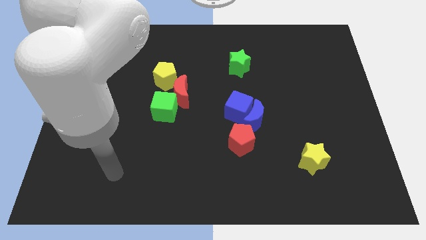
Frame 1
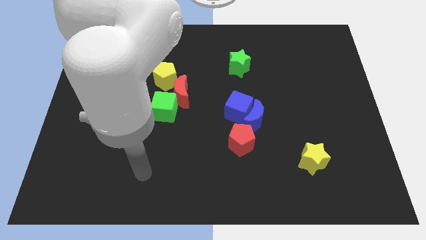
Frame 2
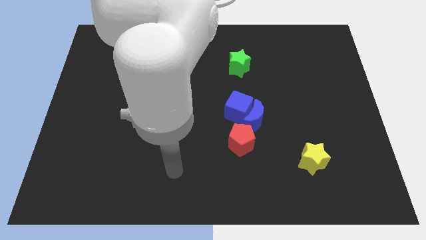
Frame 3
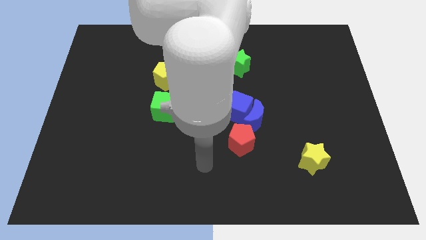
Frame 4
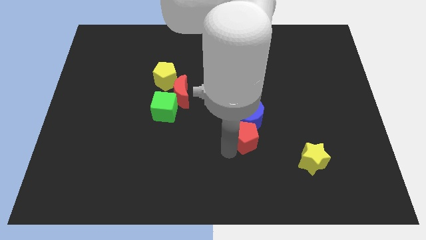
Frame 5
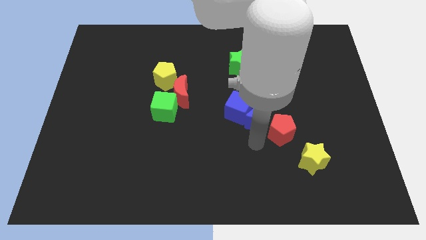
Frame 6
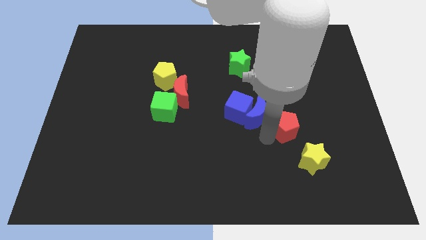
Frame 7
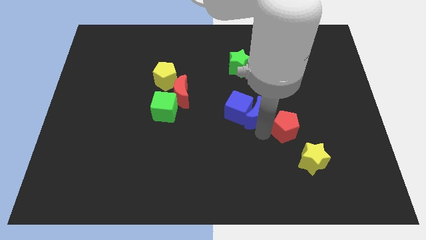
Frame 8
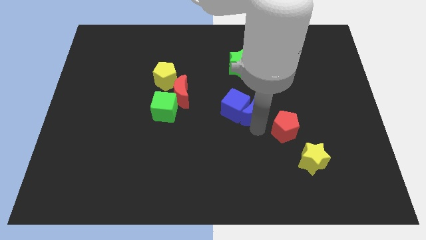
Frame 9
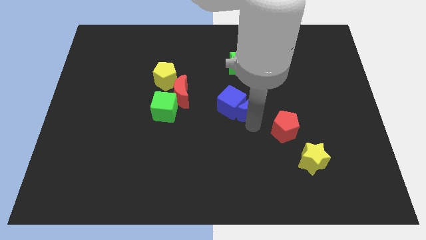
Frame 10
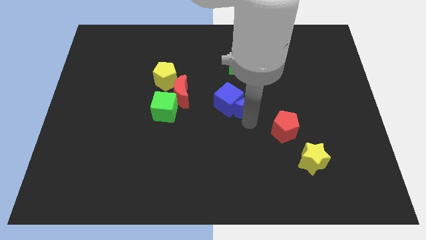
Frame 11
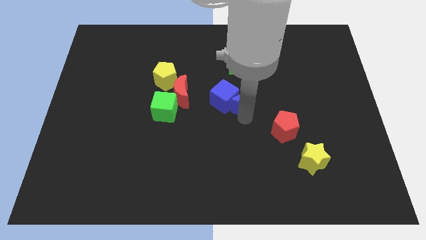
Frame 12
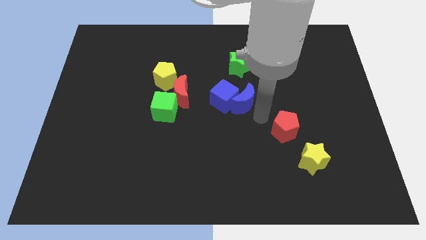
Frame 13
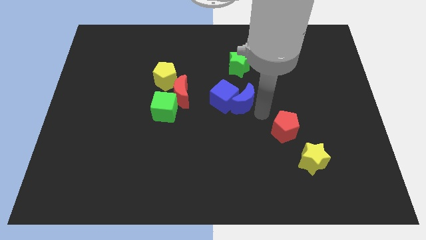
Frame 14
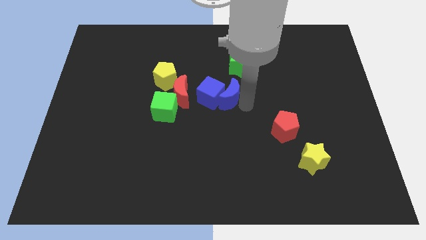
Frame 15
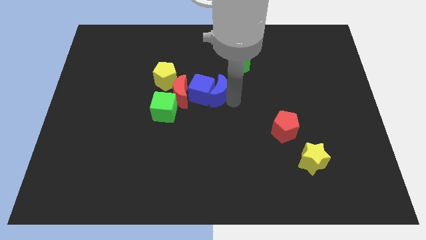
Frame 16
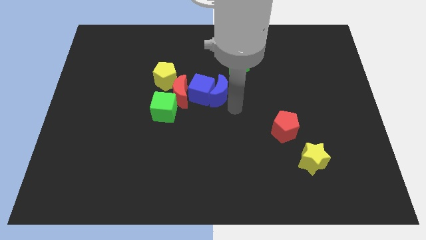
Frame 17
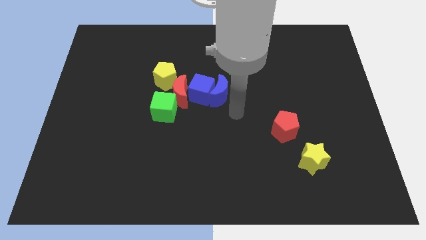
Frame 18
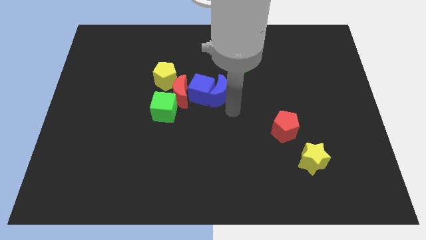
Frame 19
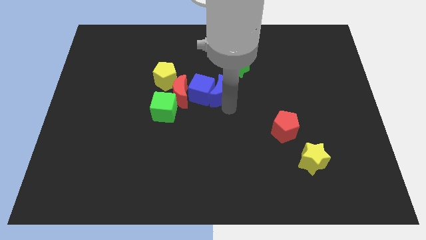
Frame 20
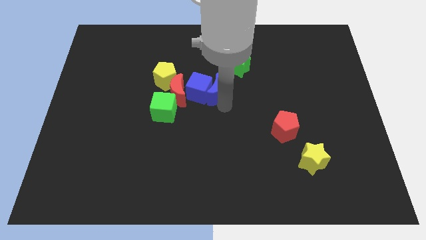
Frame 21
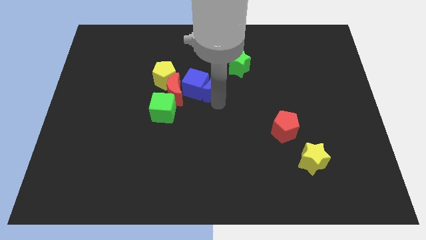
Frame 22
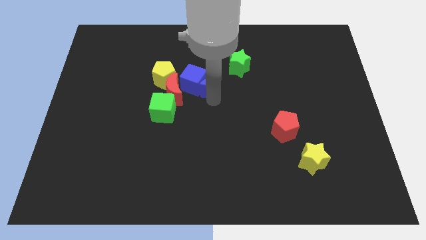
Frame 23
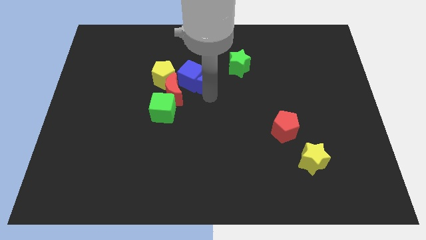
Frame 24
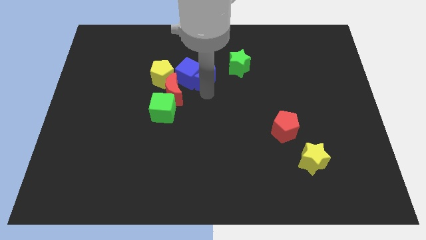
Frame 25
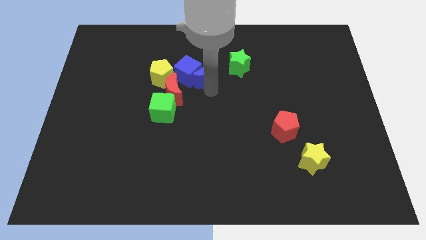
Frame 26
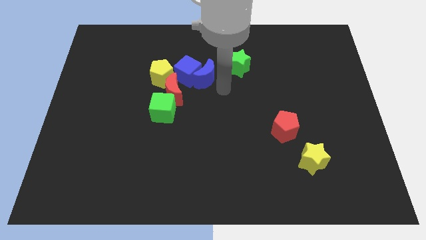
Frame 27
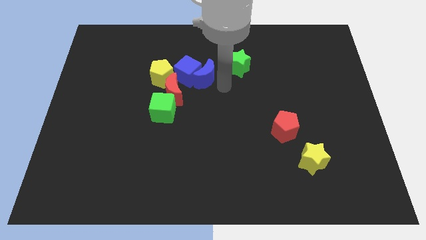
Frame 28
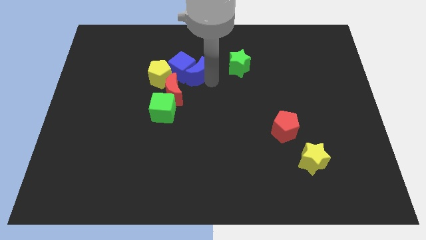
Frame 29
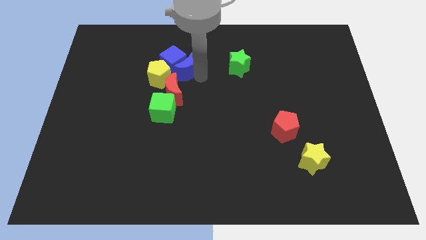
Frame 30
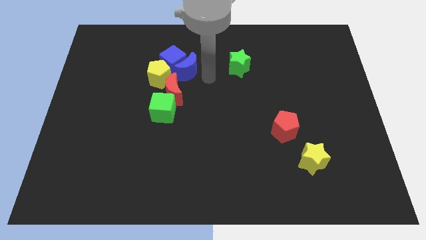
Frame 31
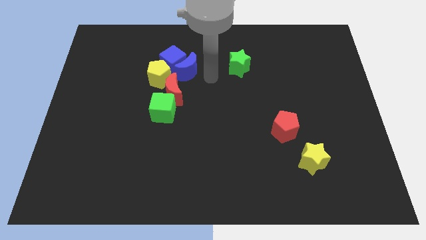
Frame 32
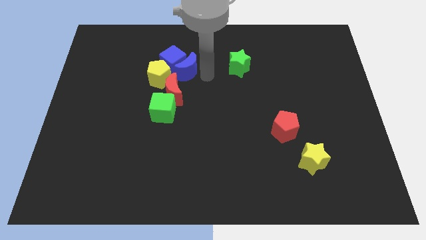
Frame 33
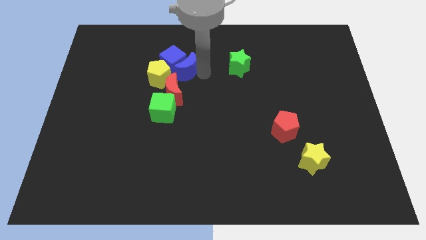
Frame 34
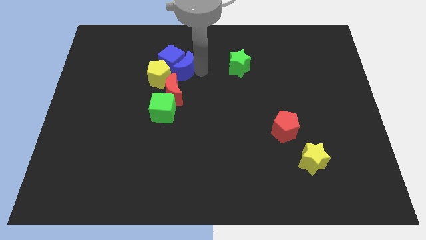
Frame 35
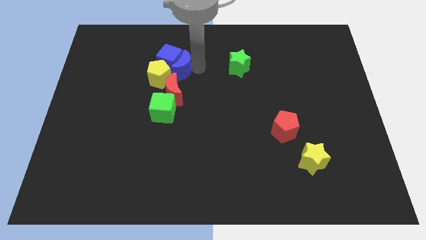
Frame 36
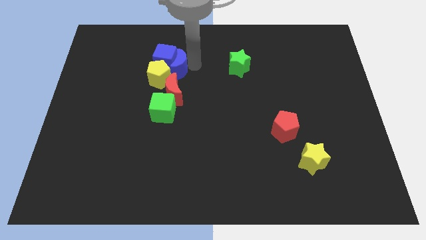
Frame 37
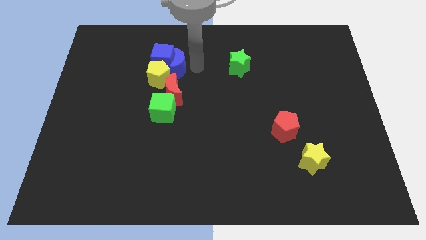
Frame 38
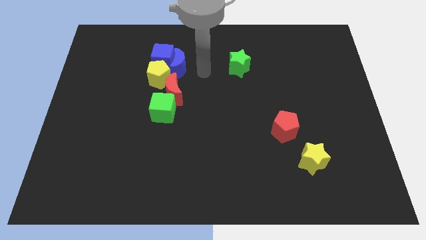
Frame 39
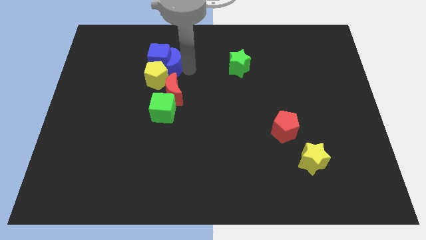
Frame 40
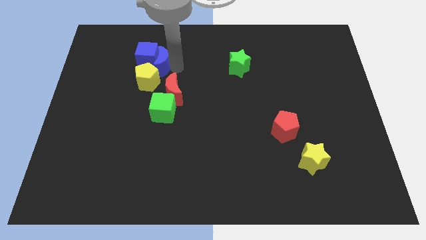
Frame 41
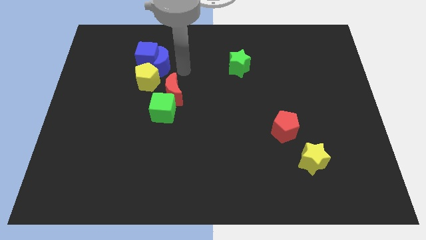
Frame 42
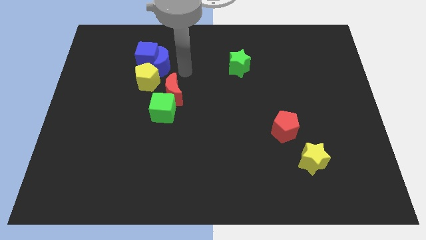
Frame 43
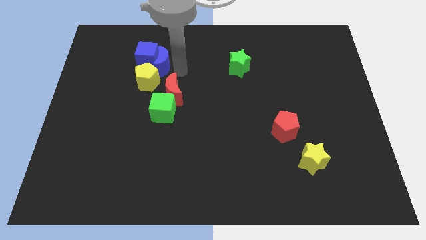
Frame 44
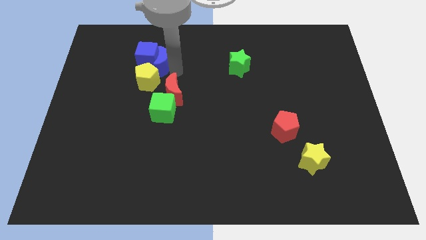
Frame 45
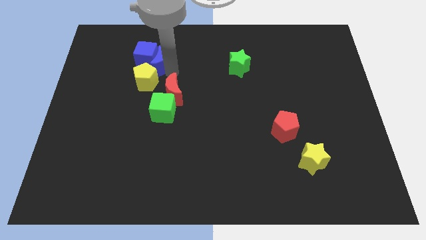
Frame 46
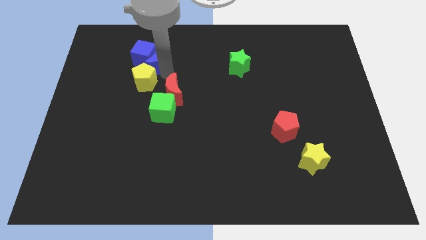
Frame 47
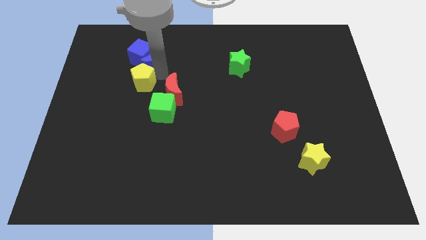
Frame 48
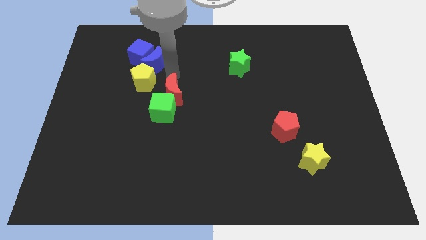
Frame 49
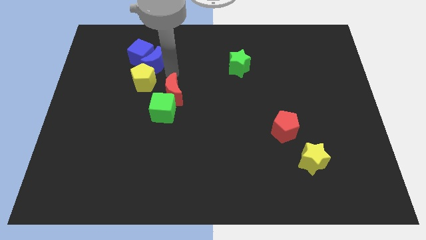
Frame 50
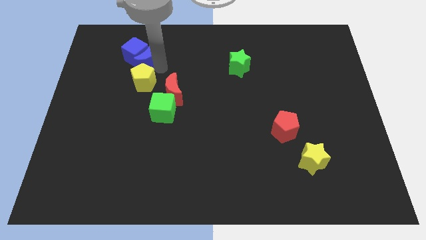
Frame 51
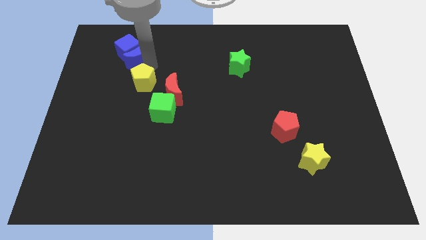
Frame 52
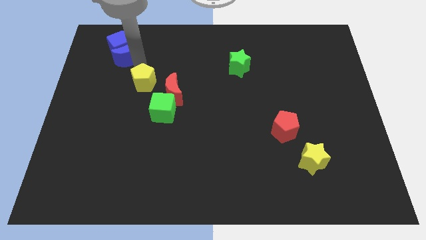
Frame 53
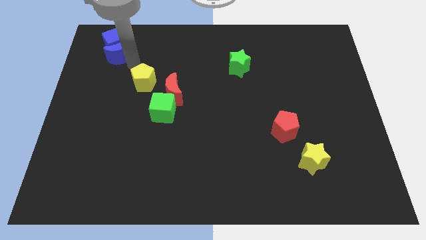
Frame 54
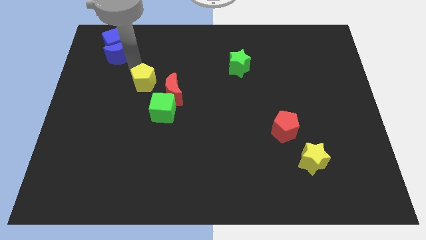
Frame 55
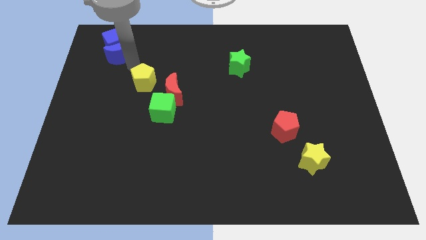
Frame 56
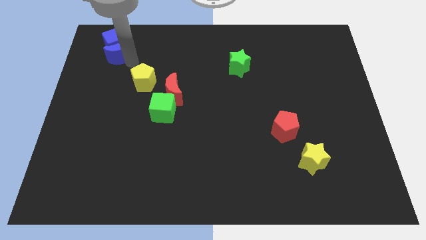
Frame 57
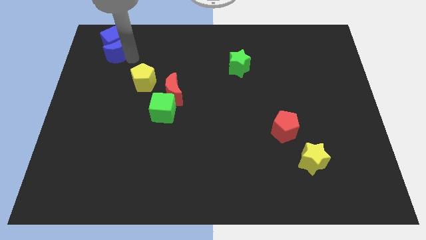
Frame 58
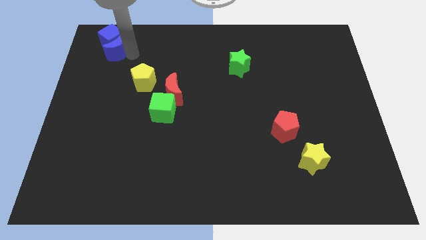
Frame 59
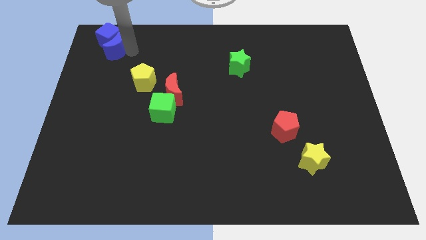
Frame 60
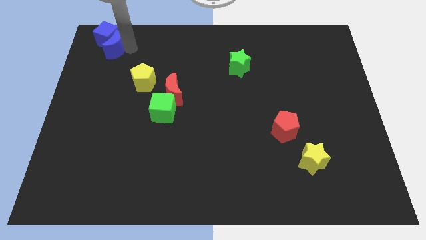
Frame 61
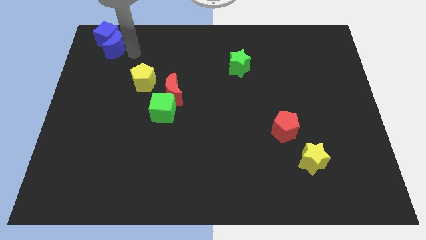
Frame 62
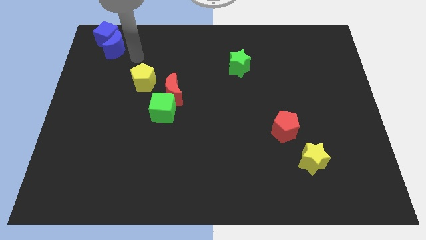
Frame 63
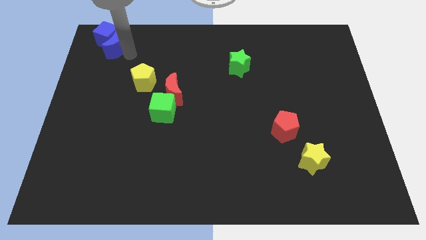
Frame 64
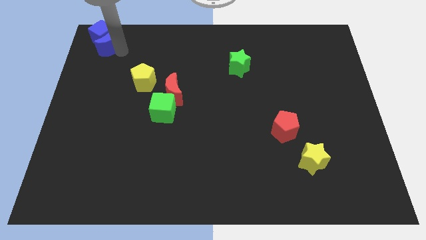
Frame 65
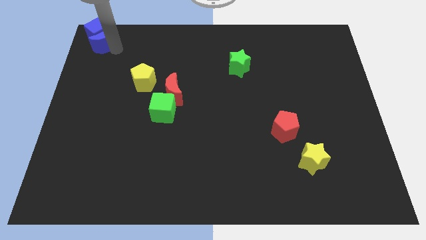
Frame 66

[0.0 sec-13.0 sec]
slide the blue moon to the upper left corner

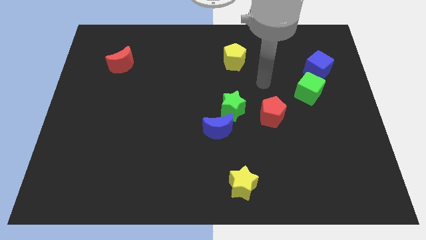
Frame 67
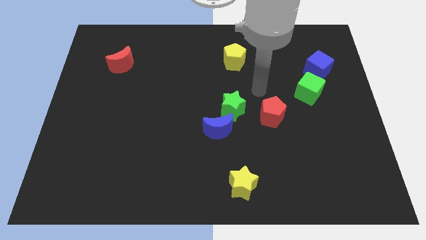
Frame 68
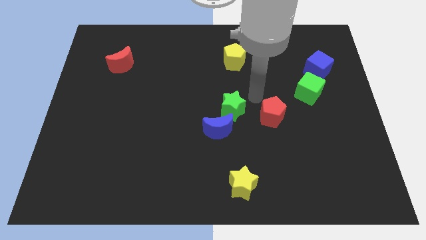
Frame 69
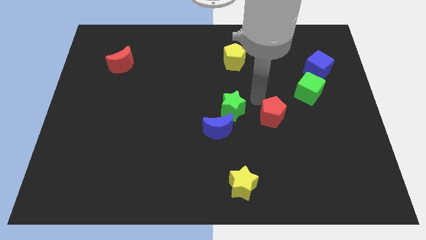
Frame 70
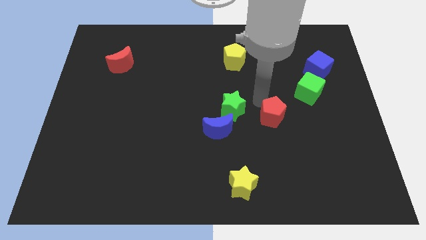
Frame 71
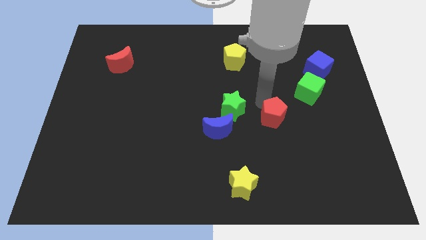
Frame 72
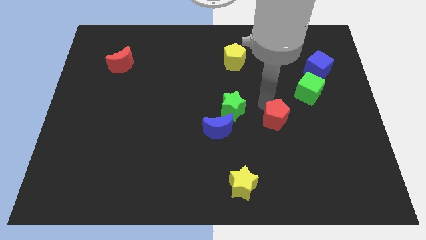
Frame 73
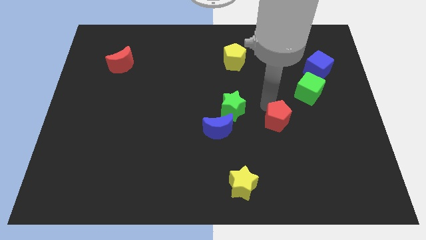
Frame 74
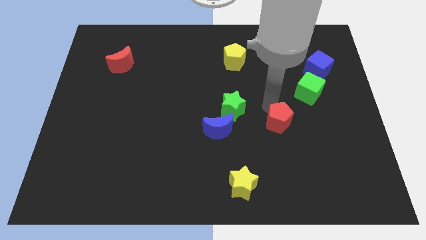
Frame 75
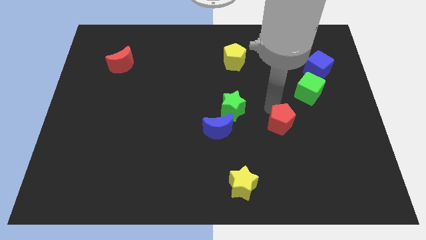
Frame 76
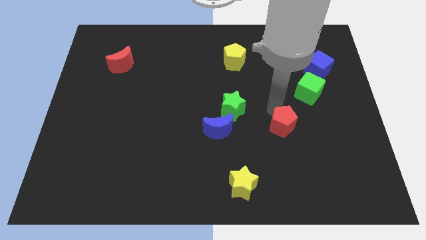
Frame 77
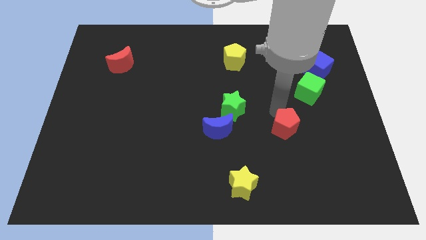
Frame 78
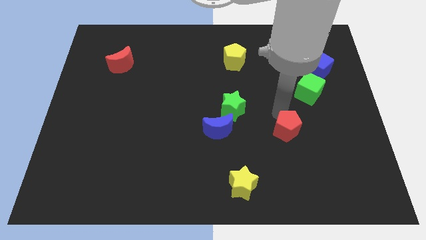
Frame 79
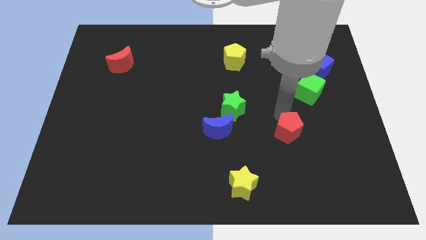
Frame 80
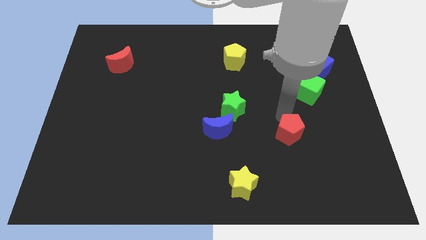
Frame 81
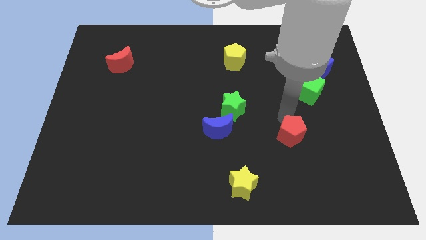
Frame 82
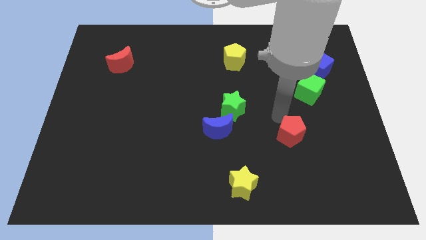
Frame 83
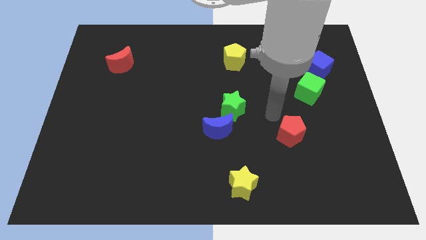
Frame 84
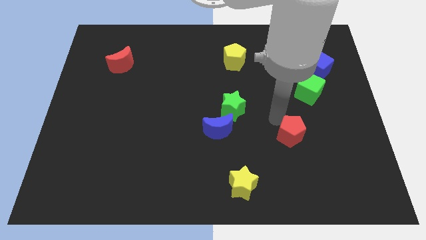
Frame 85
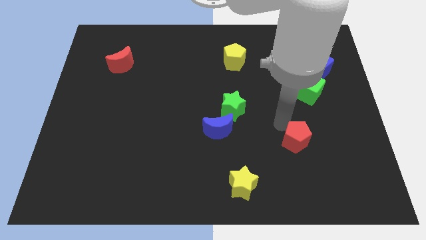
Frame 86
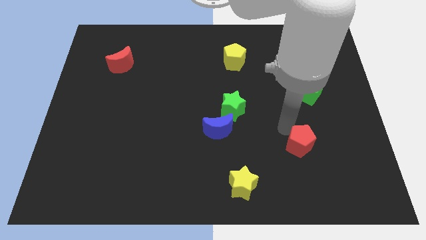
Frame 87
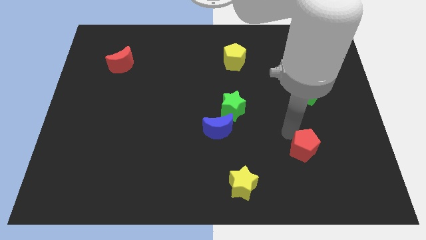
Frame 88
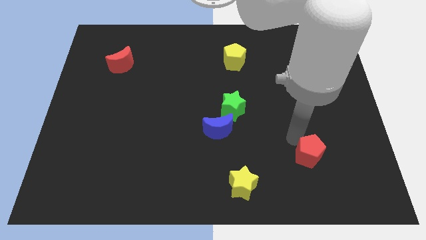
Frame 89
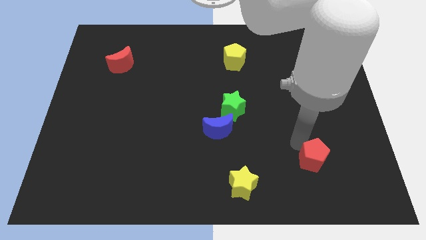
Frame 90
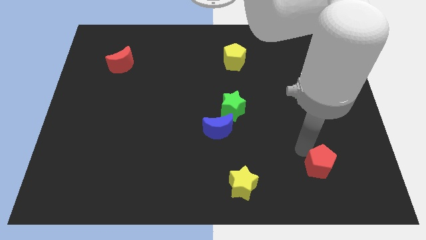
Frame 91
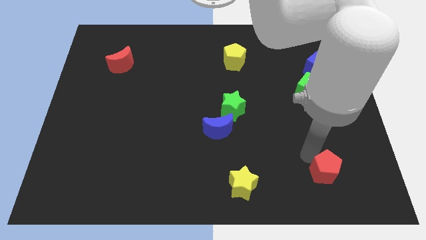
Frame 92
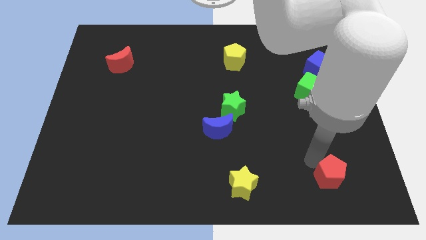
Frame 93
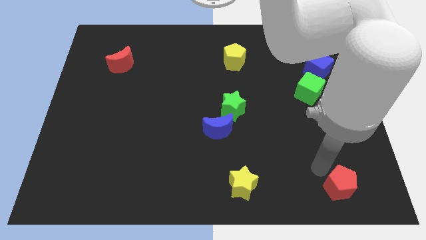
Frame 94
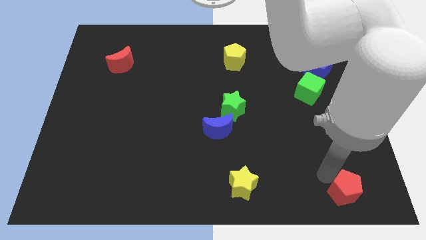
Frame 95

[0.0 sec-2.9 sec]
put the red pentagon to the bottom right corner
